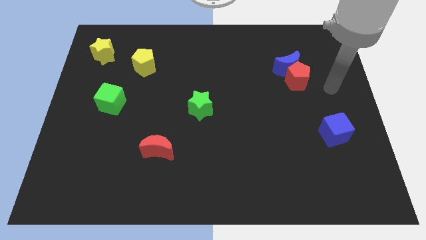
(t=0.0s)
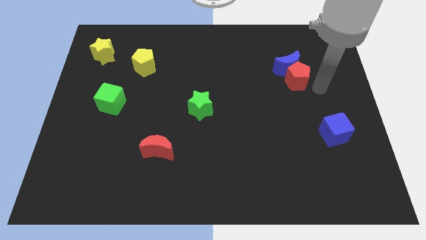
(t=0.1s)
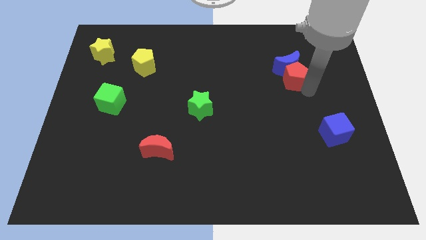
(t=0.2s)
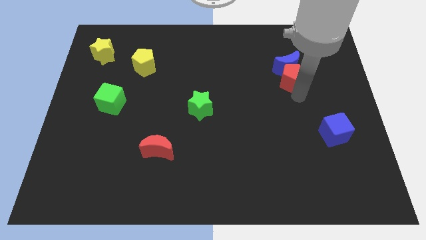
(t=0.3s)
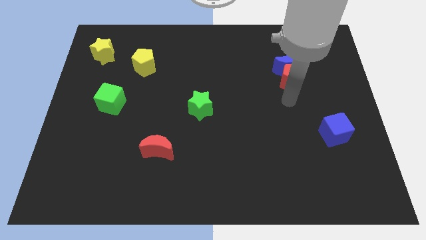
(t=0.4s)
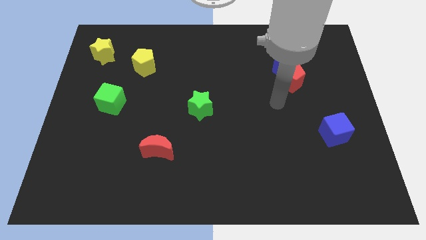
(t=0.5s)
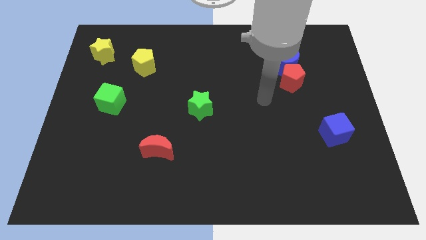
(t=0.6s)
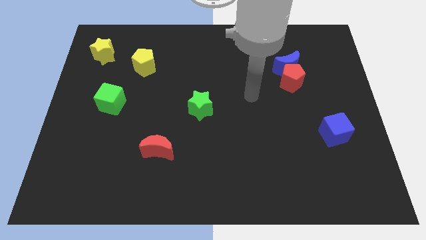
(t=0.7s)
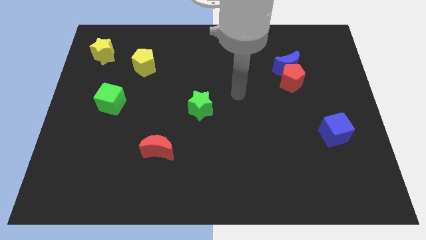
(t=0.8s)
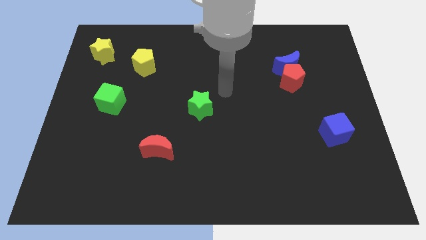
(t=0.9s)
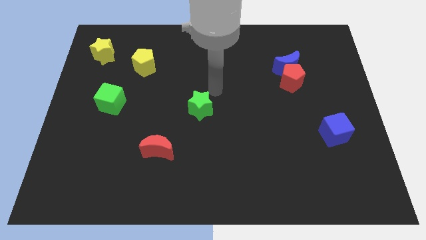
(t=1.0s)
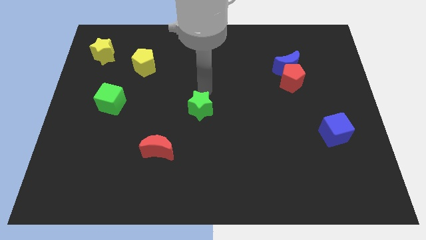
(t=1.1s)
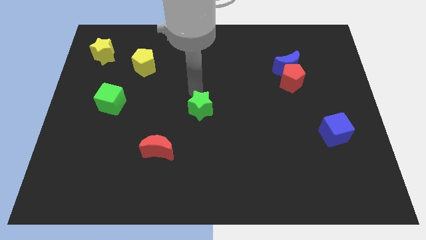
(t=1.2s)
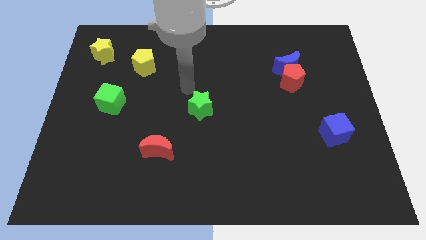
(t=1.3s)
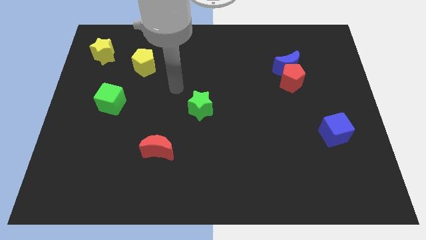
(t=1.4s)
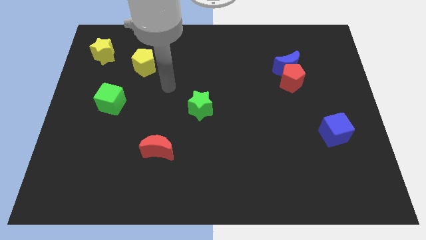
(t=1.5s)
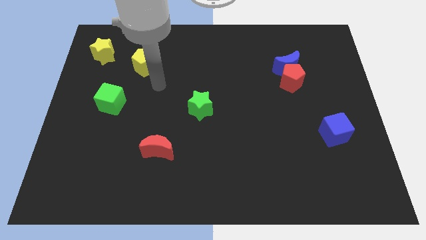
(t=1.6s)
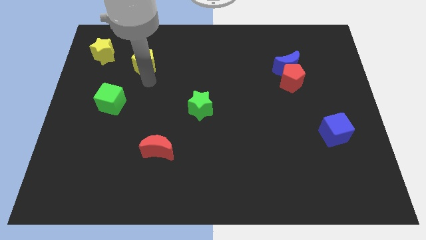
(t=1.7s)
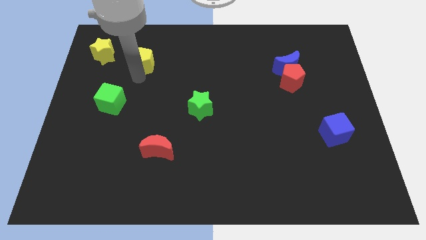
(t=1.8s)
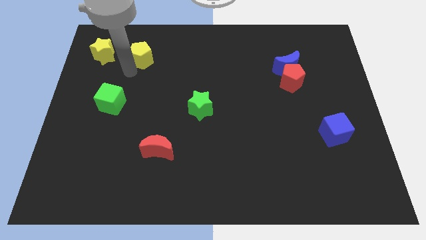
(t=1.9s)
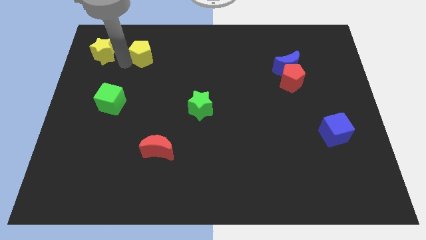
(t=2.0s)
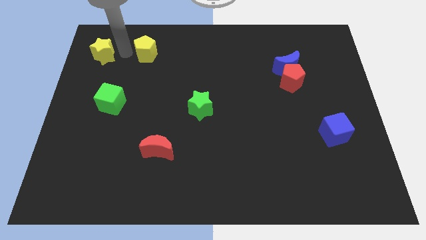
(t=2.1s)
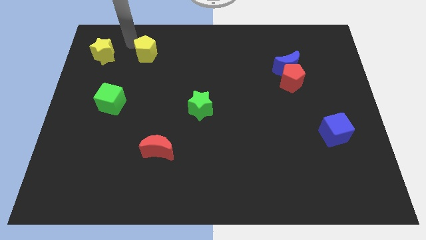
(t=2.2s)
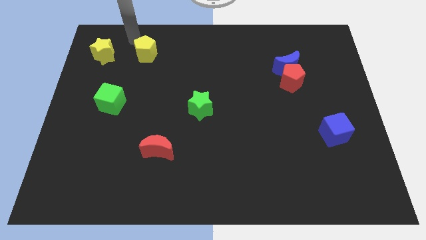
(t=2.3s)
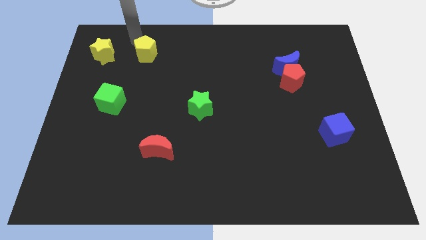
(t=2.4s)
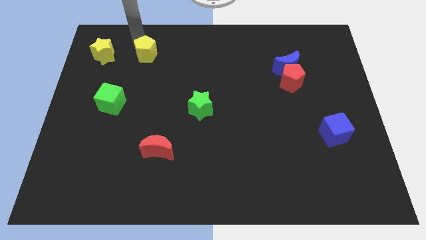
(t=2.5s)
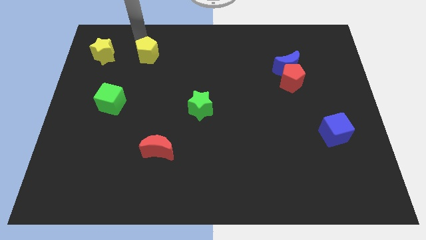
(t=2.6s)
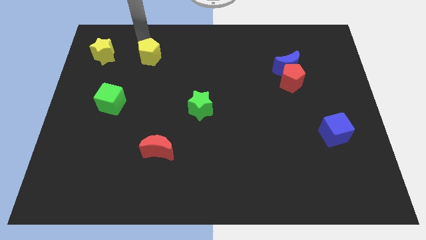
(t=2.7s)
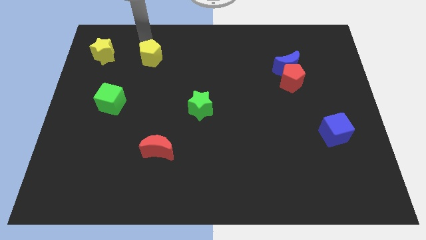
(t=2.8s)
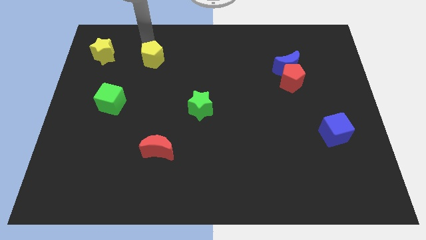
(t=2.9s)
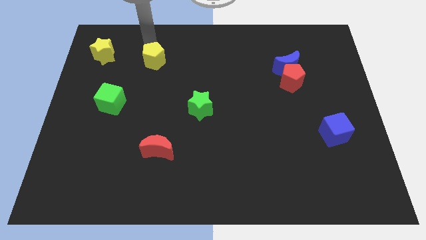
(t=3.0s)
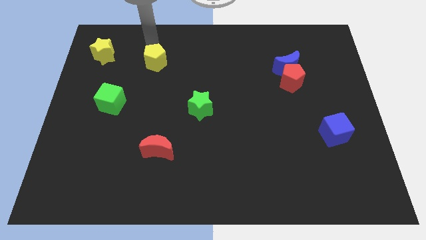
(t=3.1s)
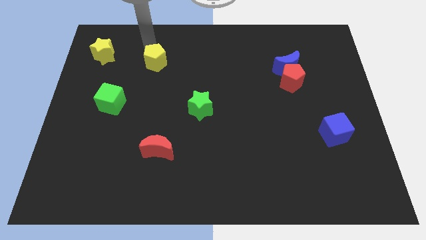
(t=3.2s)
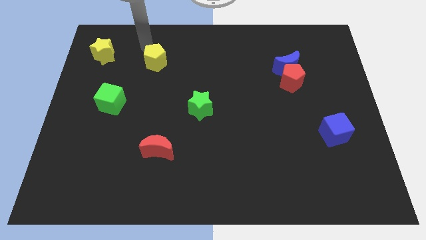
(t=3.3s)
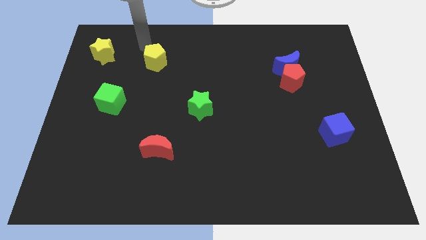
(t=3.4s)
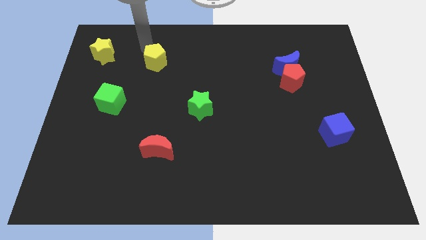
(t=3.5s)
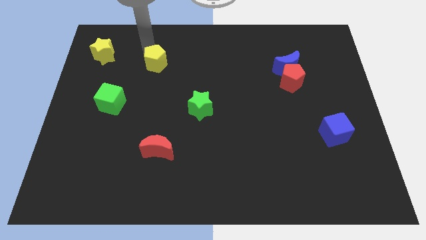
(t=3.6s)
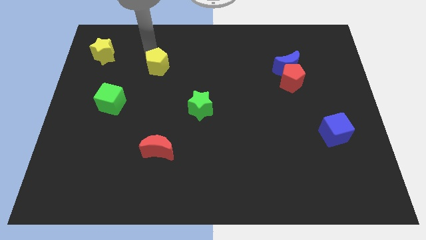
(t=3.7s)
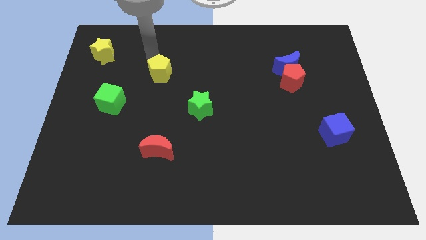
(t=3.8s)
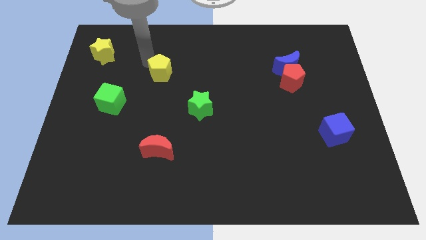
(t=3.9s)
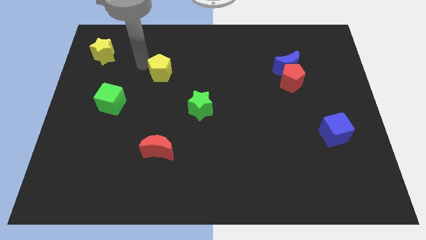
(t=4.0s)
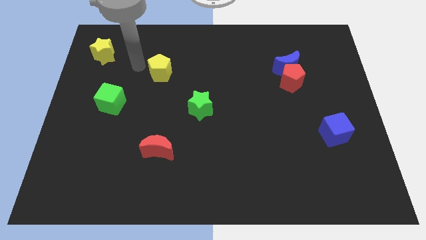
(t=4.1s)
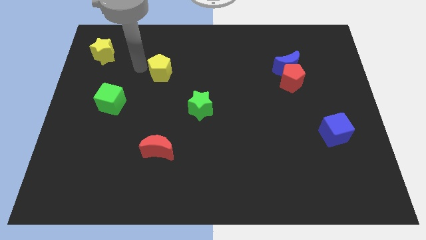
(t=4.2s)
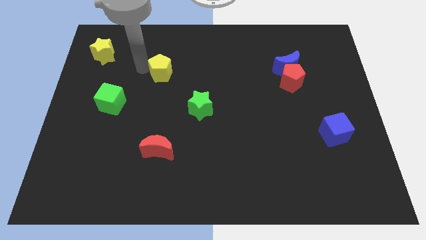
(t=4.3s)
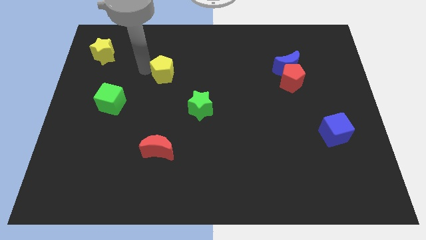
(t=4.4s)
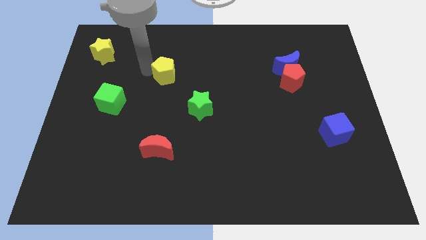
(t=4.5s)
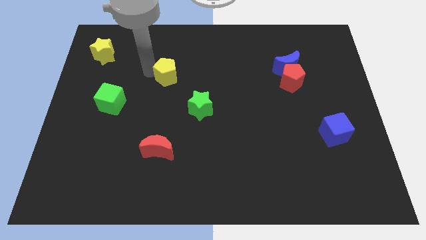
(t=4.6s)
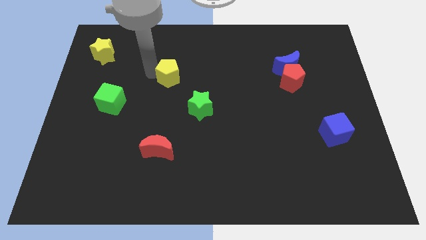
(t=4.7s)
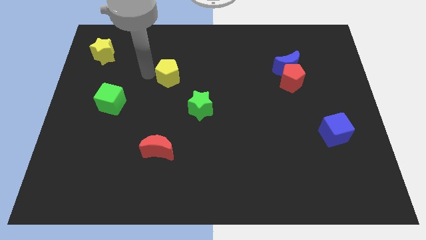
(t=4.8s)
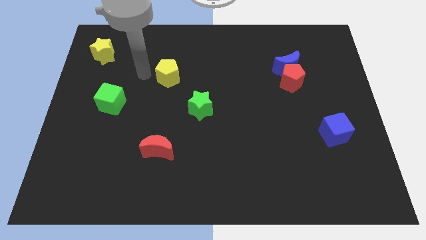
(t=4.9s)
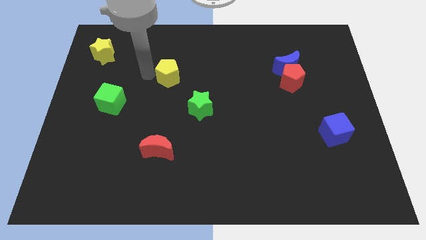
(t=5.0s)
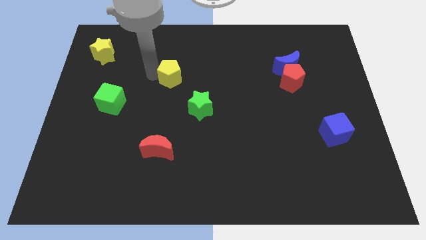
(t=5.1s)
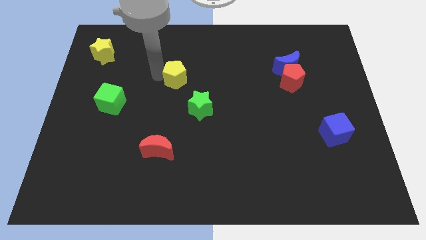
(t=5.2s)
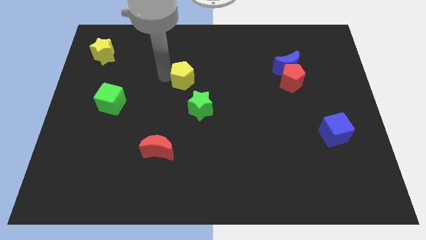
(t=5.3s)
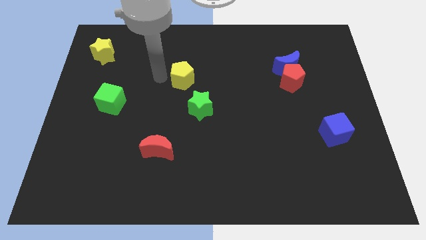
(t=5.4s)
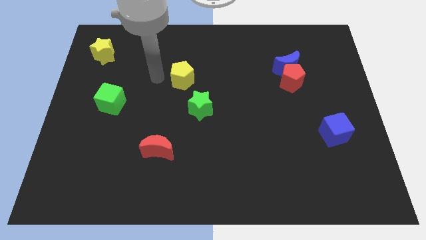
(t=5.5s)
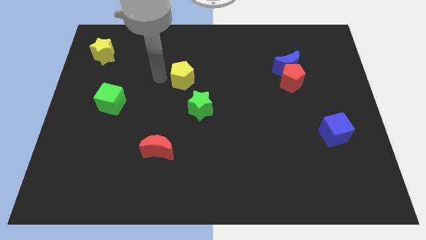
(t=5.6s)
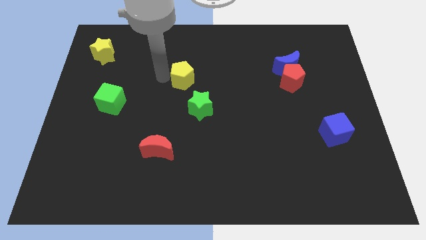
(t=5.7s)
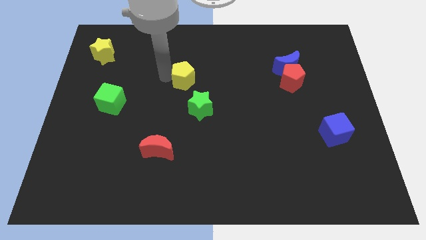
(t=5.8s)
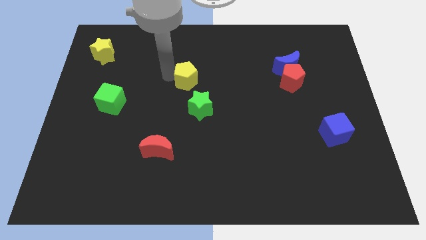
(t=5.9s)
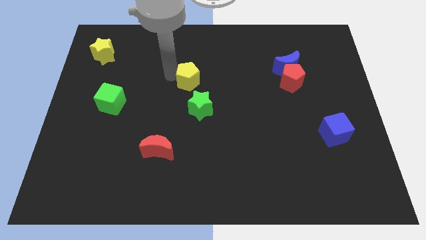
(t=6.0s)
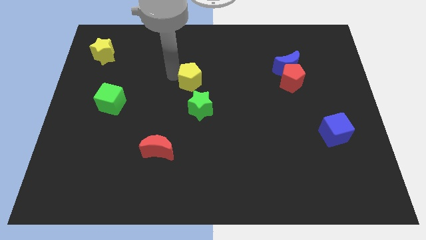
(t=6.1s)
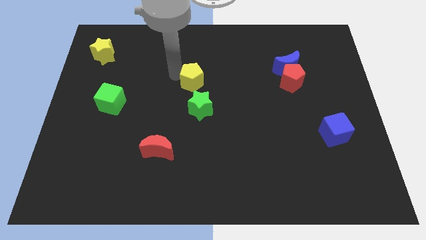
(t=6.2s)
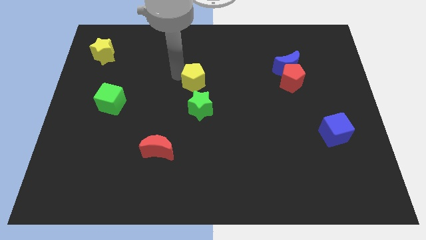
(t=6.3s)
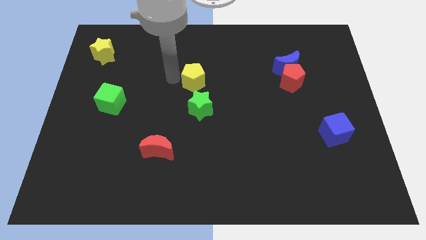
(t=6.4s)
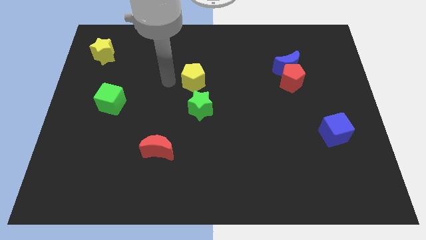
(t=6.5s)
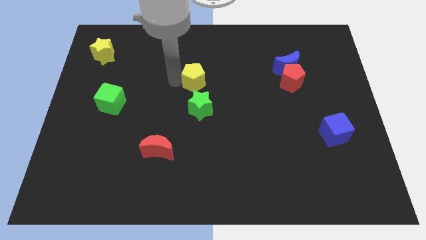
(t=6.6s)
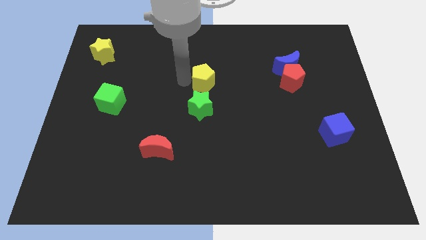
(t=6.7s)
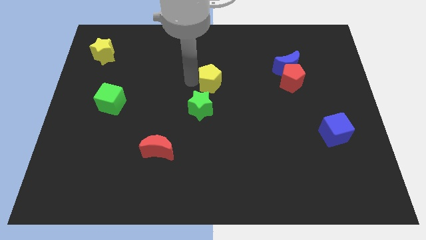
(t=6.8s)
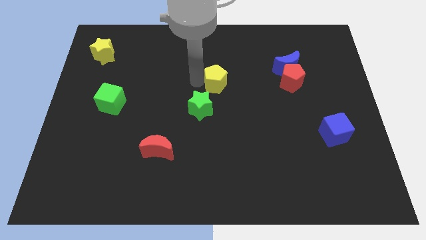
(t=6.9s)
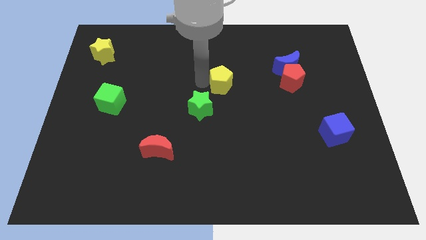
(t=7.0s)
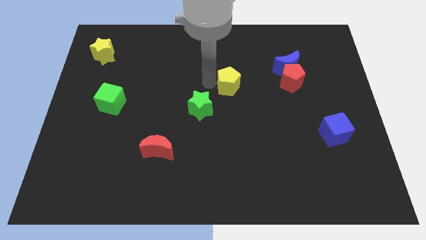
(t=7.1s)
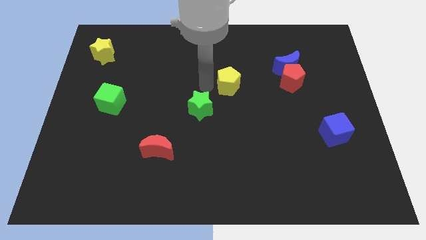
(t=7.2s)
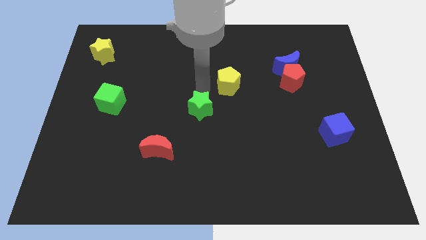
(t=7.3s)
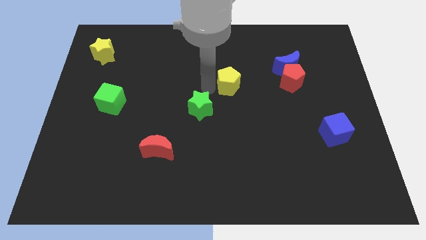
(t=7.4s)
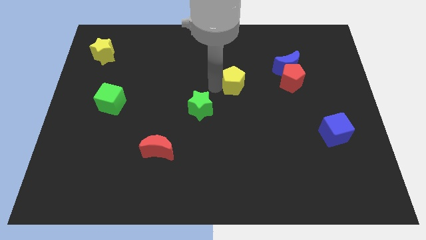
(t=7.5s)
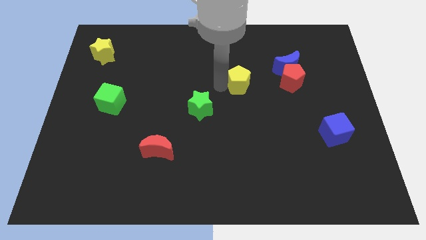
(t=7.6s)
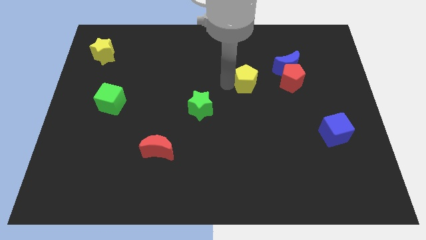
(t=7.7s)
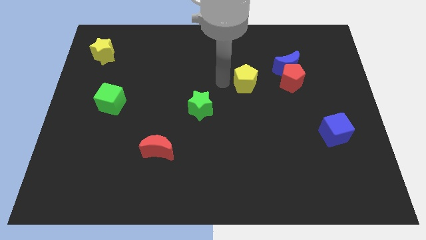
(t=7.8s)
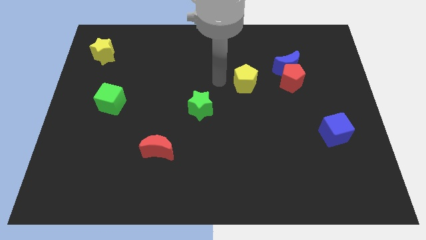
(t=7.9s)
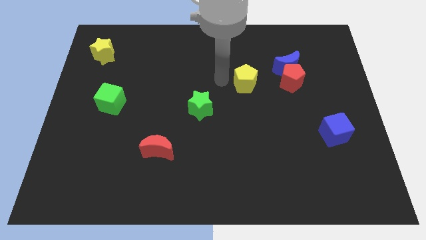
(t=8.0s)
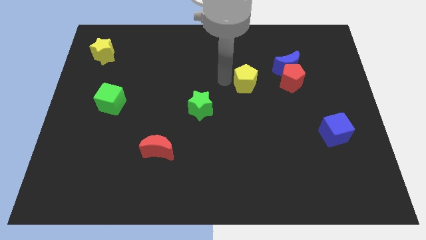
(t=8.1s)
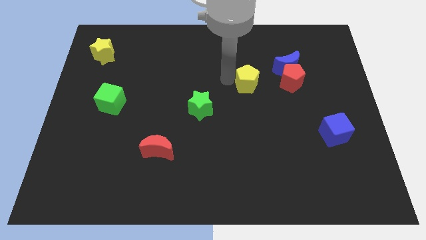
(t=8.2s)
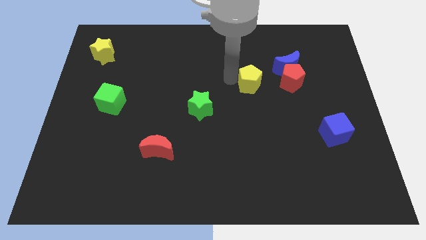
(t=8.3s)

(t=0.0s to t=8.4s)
move the yellow pentagon diagonally down and to the left of the blue moon
